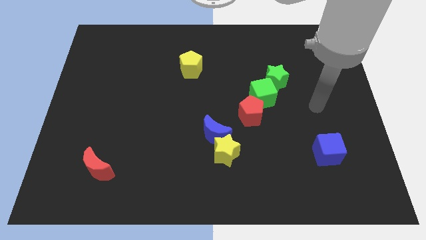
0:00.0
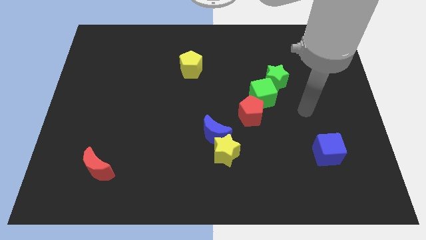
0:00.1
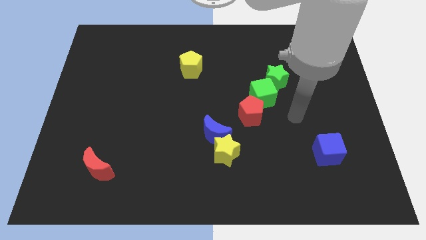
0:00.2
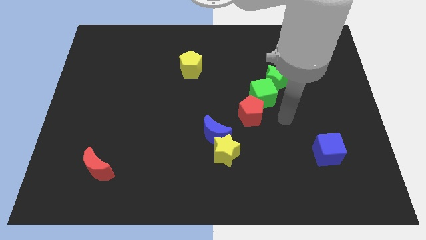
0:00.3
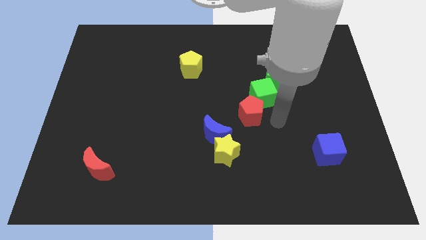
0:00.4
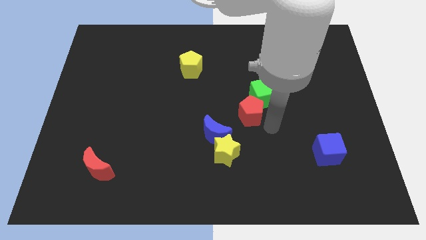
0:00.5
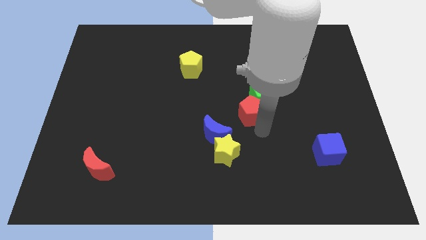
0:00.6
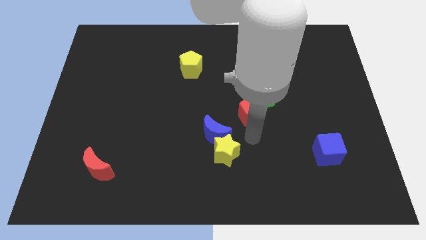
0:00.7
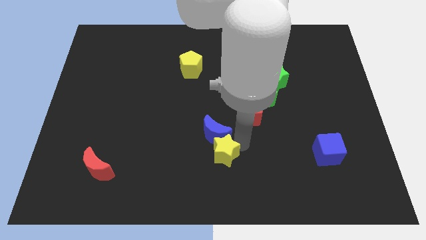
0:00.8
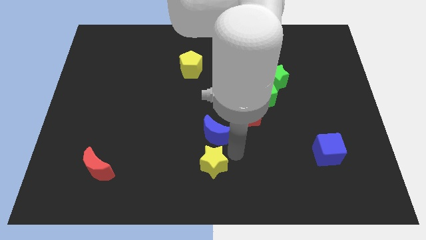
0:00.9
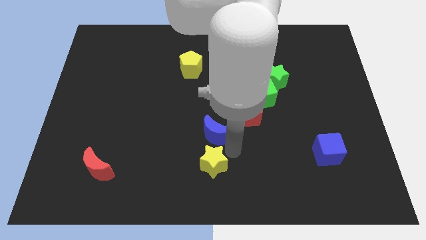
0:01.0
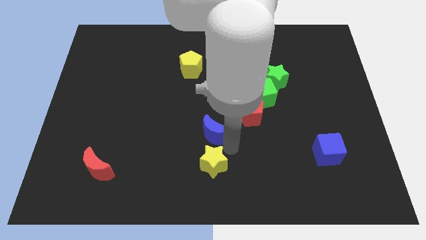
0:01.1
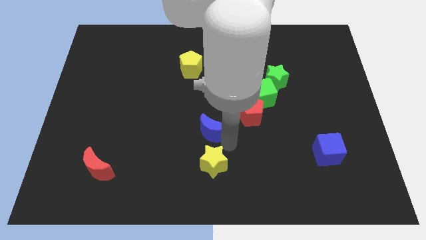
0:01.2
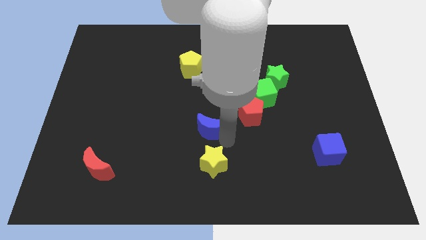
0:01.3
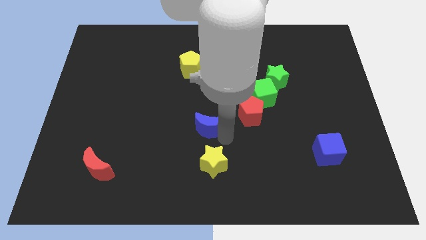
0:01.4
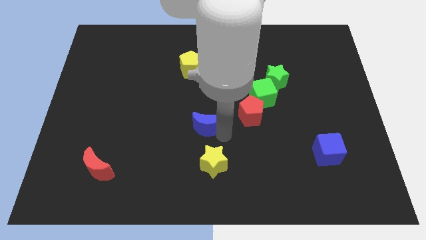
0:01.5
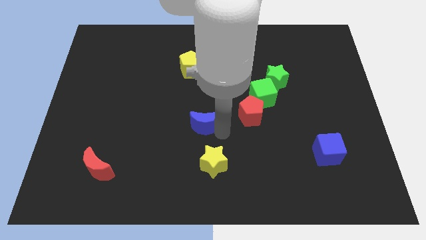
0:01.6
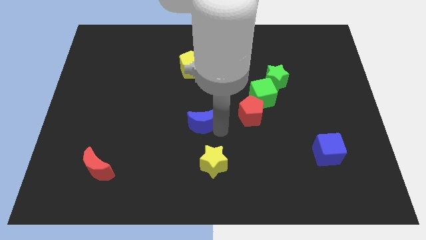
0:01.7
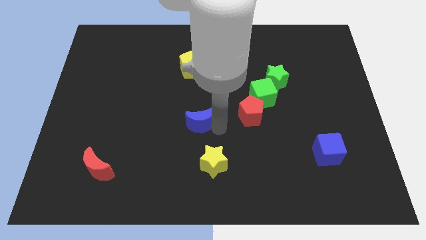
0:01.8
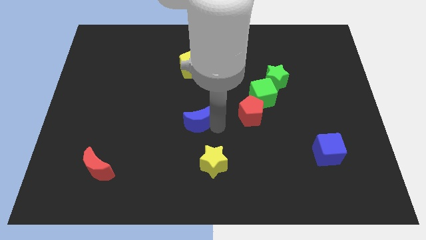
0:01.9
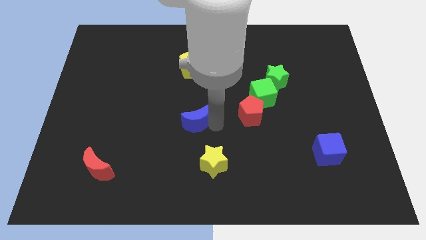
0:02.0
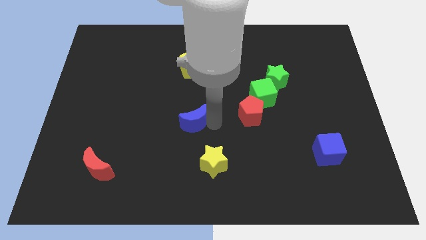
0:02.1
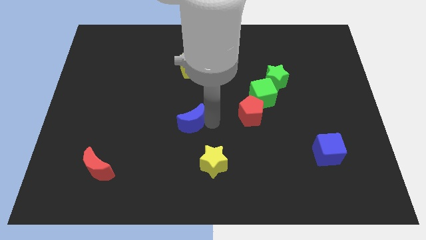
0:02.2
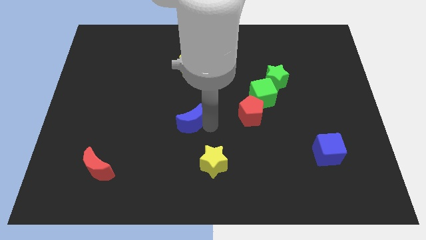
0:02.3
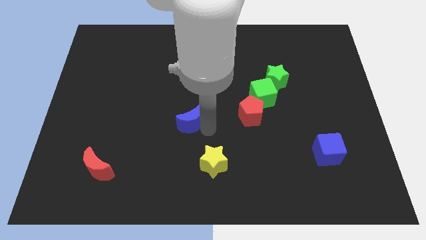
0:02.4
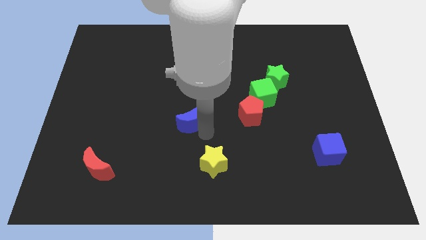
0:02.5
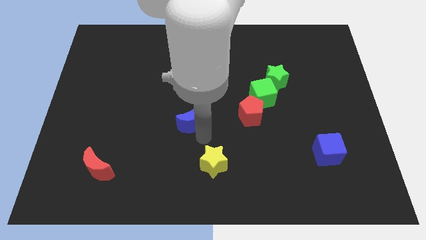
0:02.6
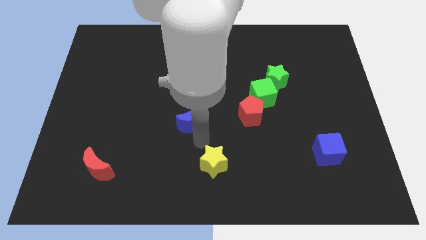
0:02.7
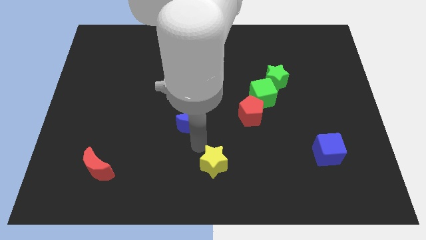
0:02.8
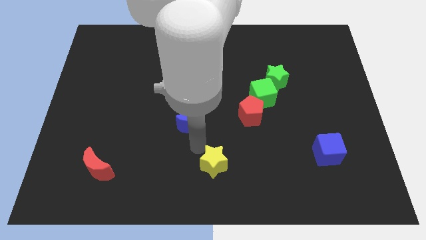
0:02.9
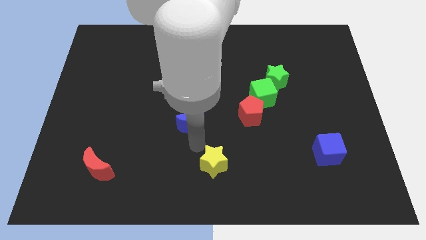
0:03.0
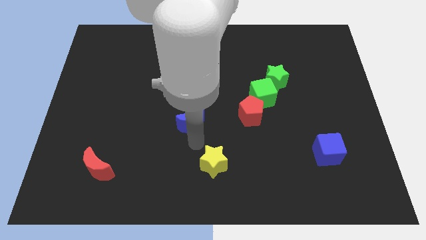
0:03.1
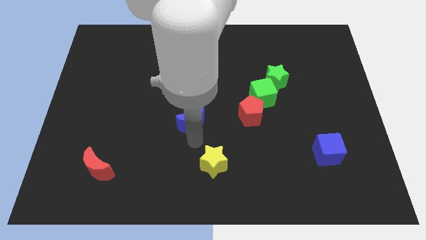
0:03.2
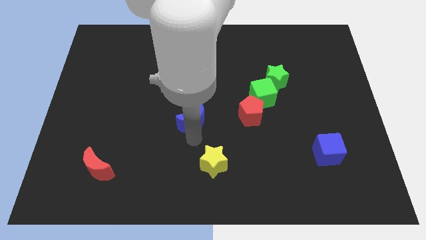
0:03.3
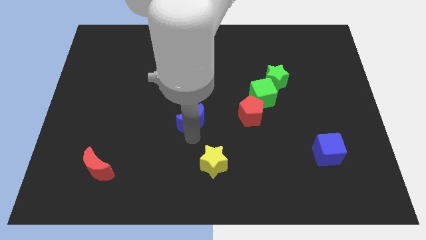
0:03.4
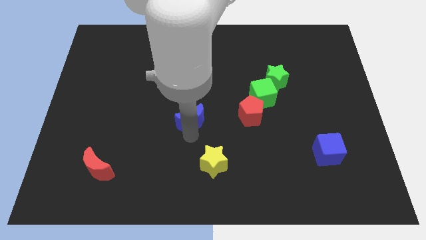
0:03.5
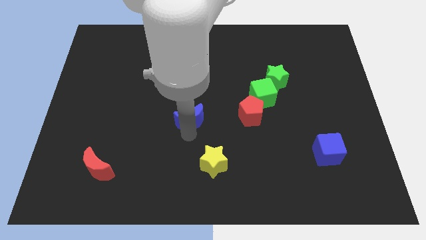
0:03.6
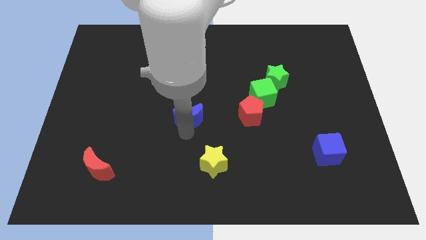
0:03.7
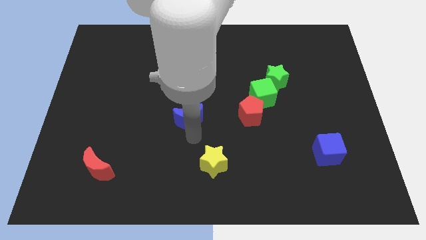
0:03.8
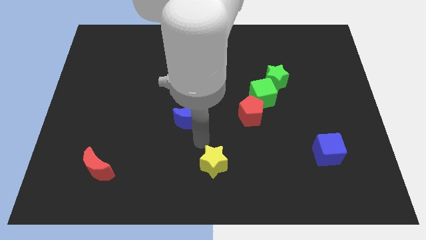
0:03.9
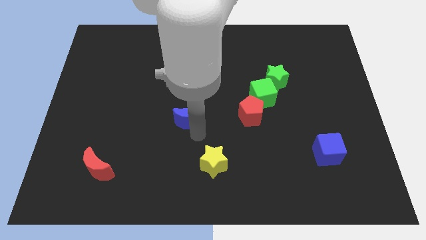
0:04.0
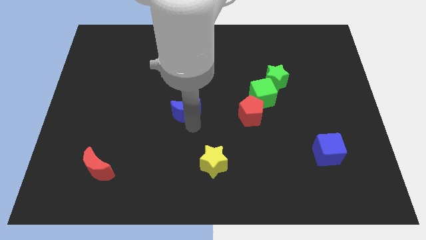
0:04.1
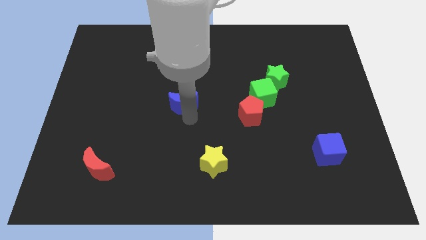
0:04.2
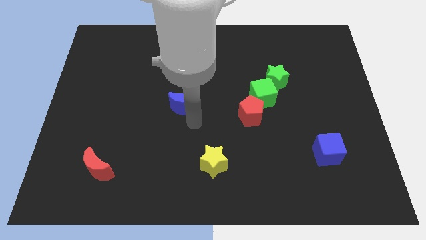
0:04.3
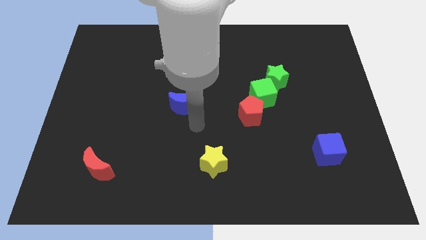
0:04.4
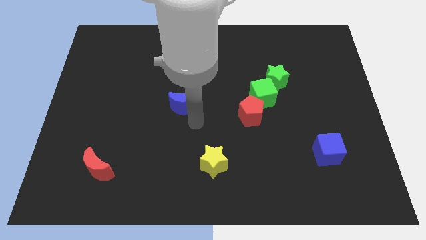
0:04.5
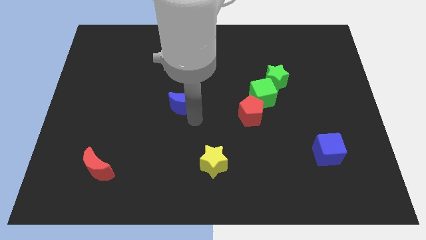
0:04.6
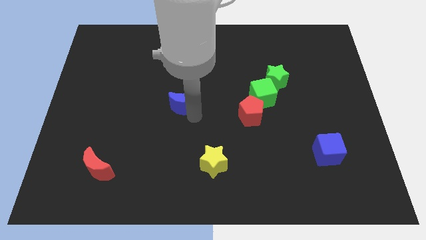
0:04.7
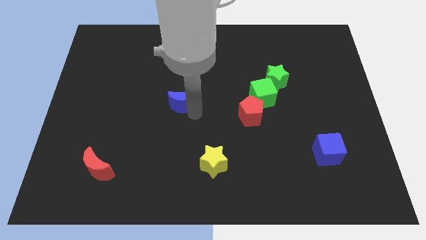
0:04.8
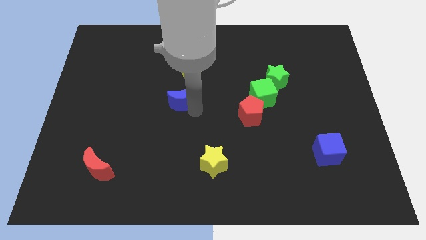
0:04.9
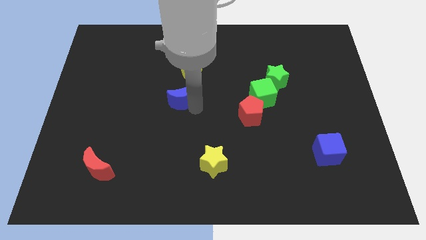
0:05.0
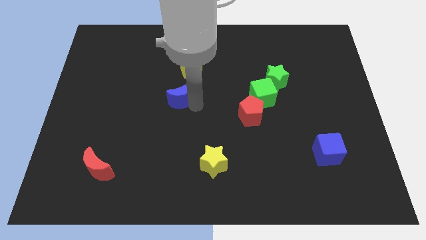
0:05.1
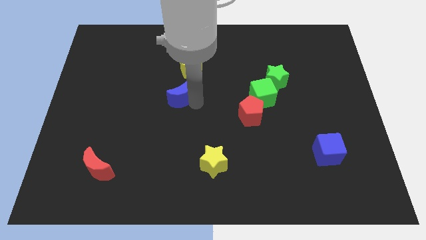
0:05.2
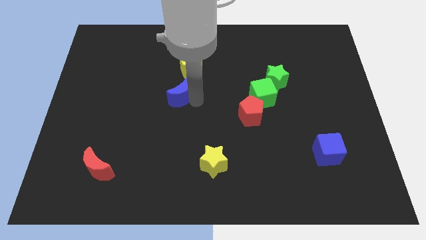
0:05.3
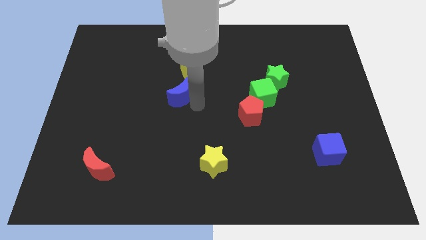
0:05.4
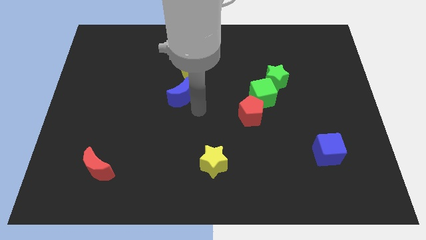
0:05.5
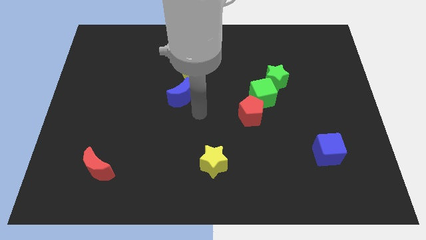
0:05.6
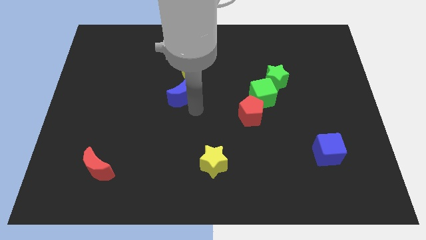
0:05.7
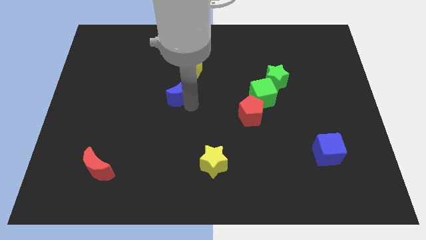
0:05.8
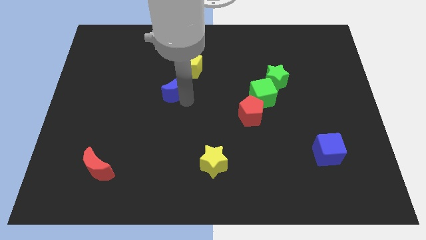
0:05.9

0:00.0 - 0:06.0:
push the blue moon to the bottom left of the yellow pentagon

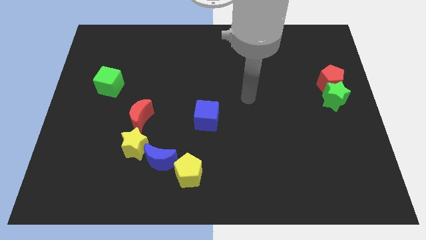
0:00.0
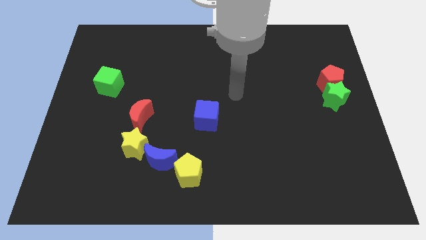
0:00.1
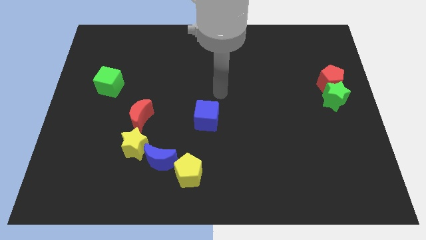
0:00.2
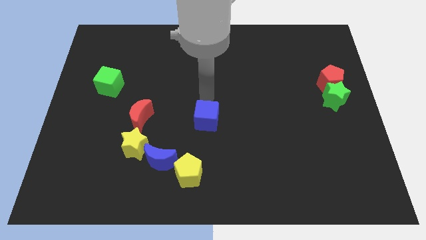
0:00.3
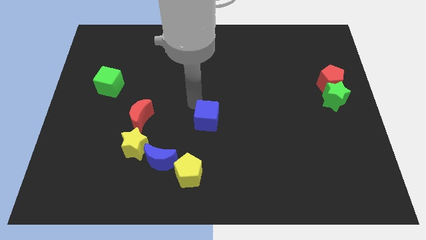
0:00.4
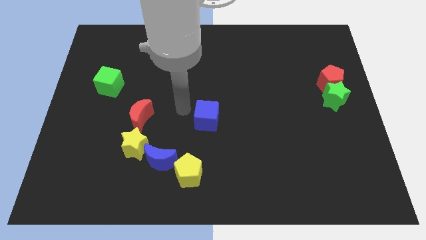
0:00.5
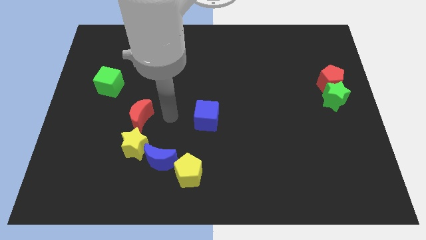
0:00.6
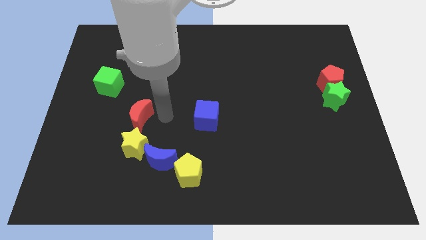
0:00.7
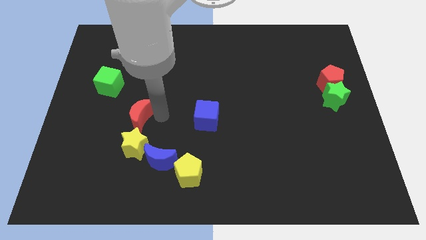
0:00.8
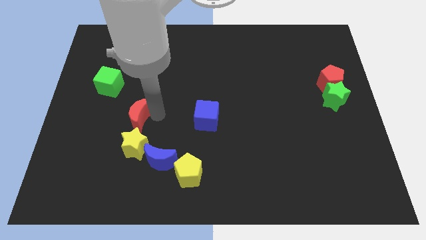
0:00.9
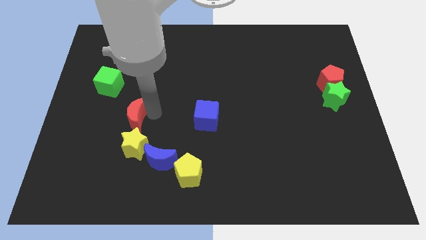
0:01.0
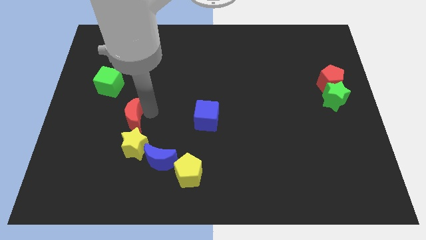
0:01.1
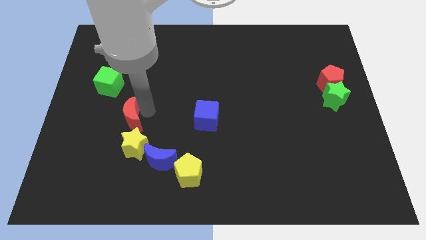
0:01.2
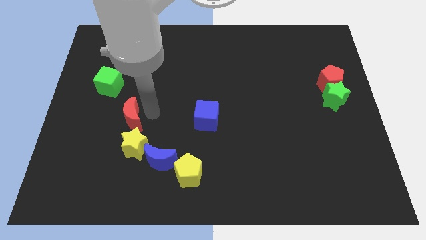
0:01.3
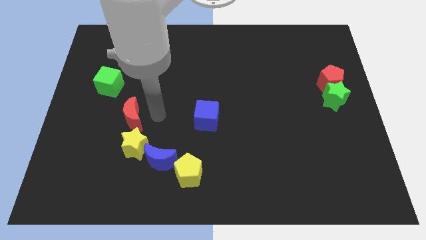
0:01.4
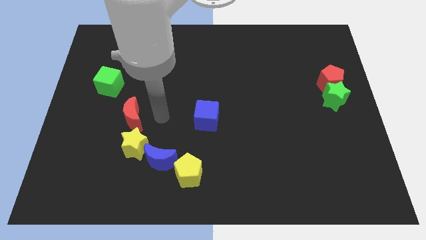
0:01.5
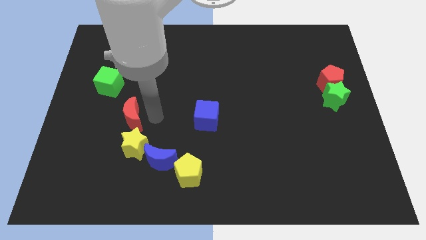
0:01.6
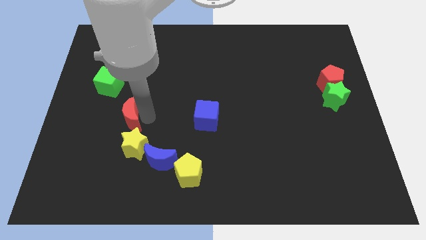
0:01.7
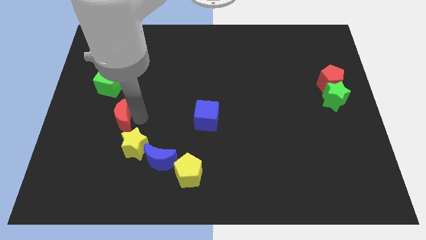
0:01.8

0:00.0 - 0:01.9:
put the red moon below the green cube
